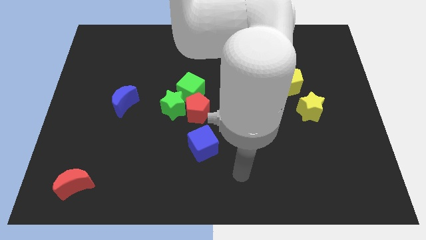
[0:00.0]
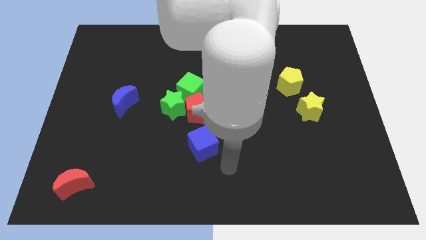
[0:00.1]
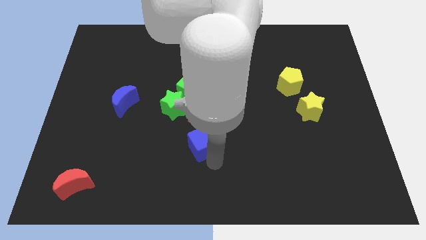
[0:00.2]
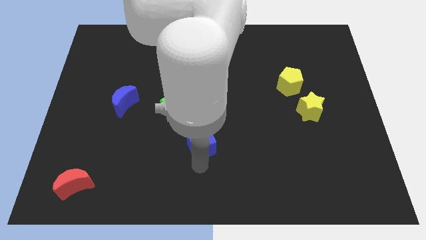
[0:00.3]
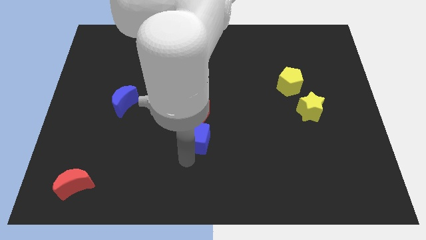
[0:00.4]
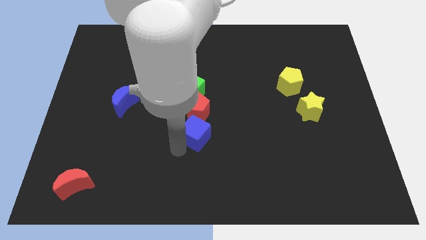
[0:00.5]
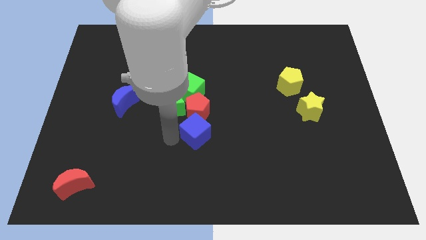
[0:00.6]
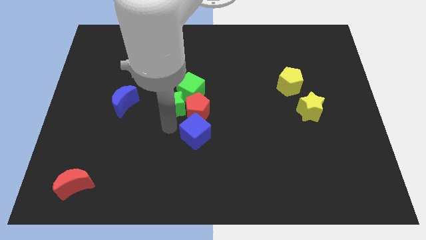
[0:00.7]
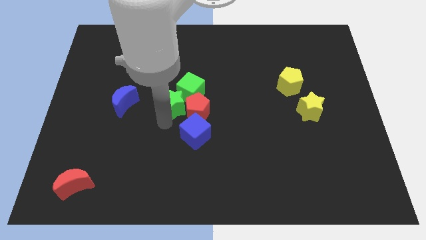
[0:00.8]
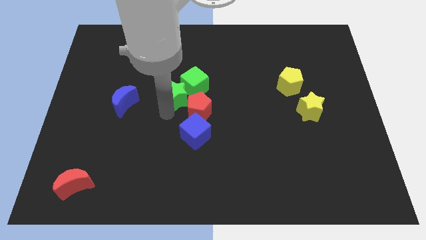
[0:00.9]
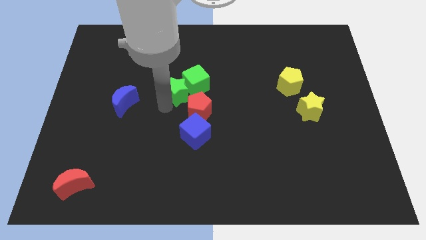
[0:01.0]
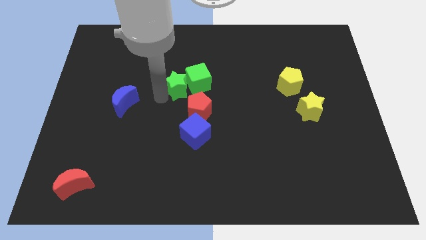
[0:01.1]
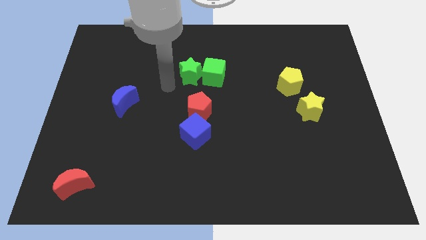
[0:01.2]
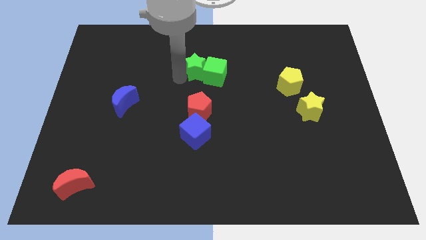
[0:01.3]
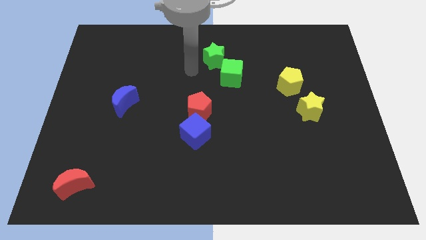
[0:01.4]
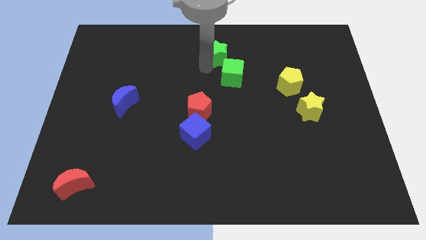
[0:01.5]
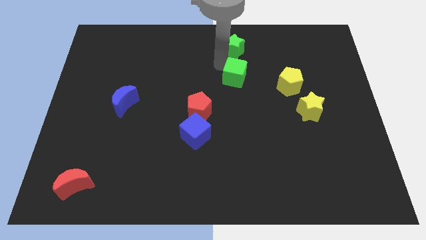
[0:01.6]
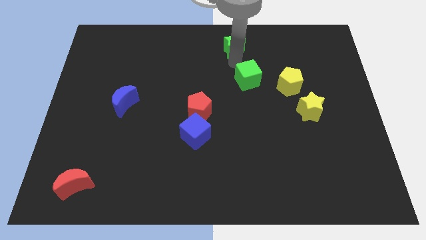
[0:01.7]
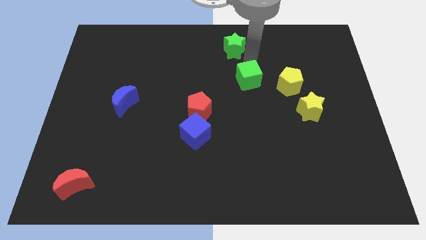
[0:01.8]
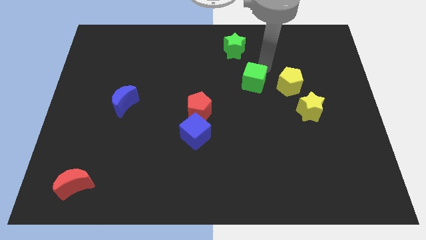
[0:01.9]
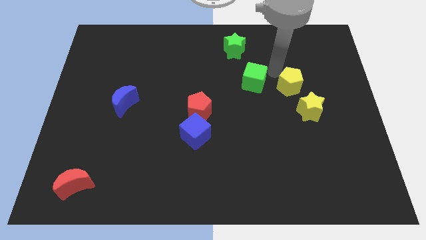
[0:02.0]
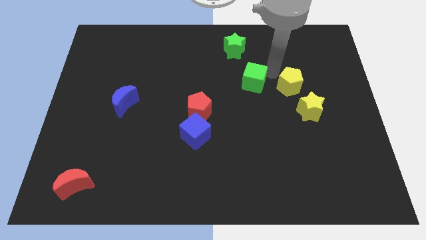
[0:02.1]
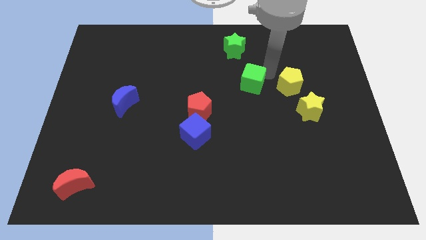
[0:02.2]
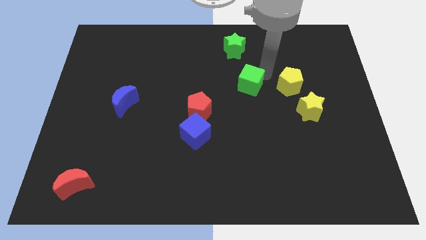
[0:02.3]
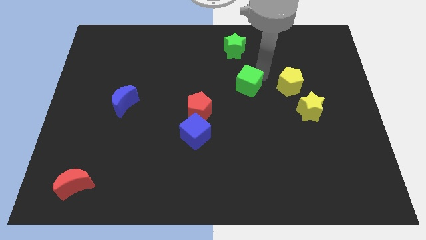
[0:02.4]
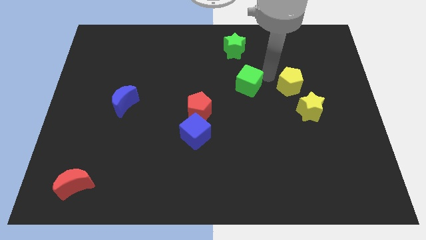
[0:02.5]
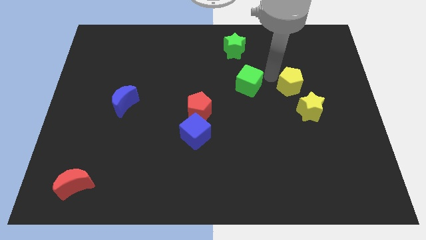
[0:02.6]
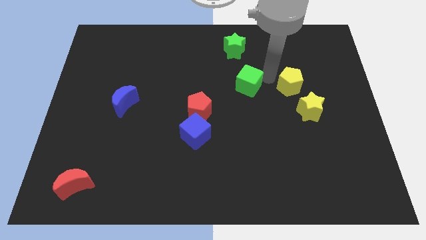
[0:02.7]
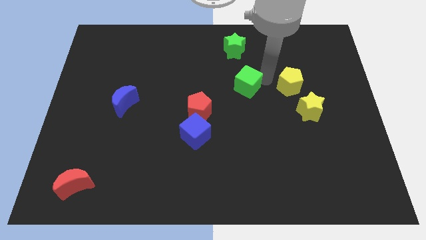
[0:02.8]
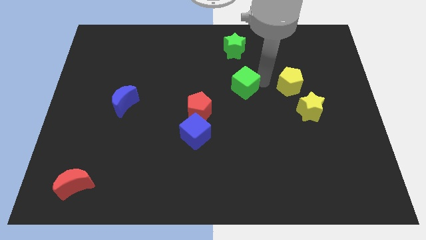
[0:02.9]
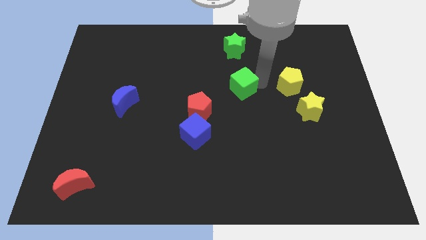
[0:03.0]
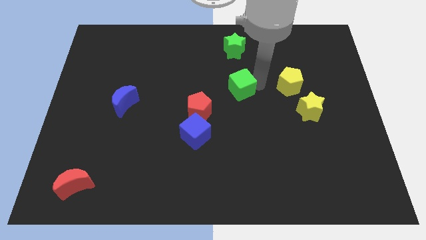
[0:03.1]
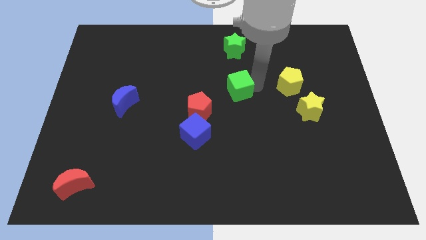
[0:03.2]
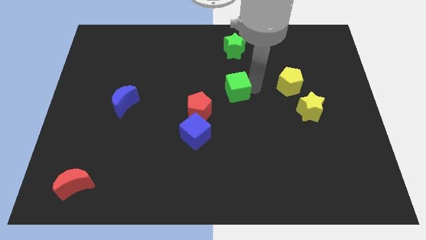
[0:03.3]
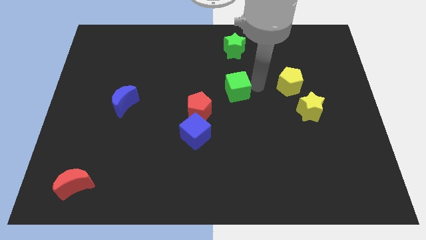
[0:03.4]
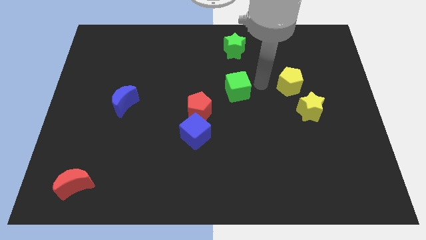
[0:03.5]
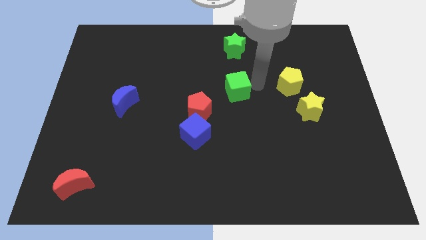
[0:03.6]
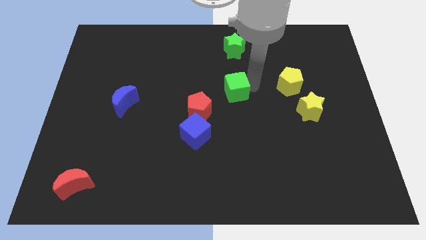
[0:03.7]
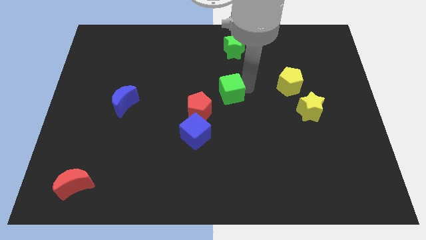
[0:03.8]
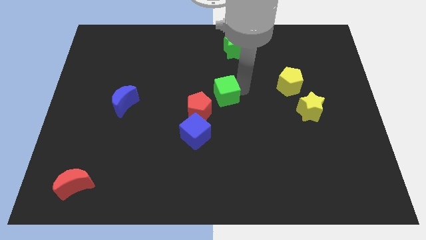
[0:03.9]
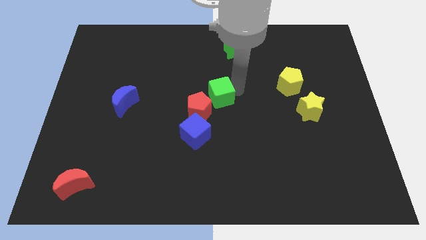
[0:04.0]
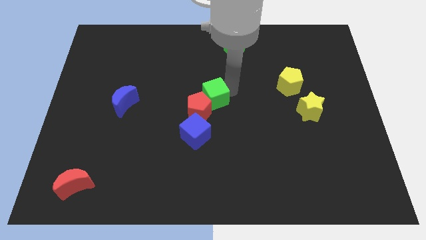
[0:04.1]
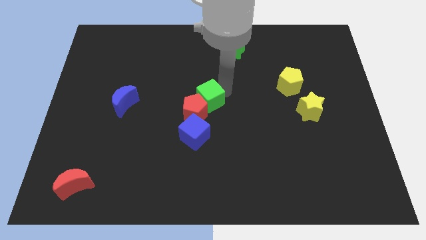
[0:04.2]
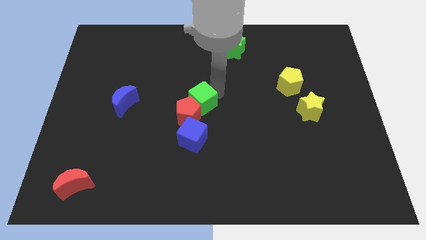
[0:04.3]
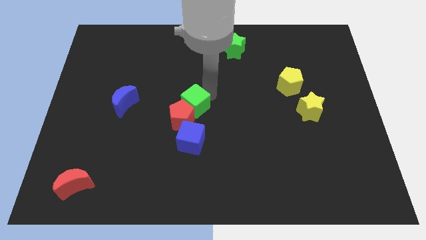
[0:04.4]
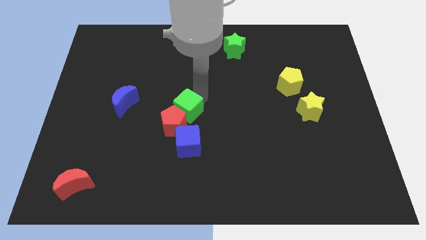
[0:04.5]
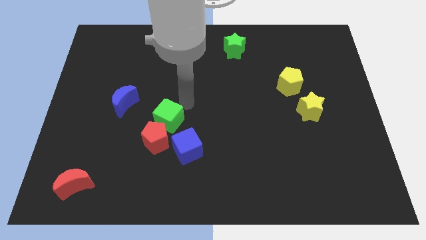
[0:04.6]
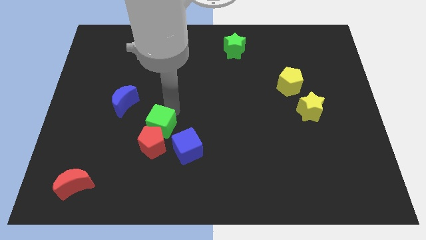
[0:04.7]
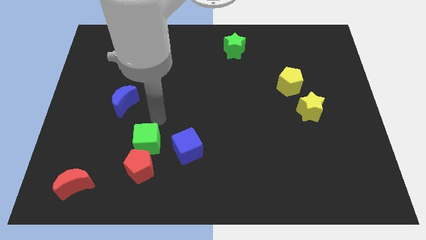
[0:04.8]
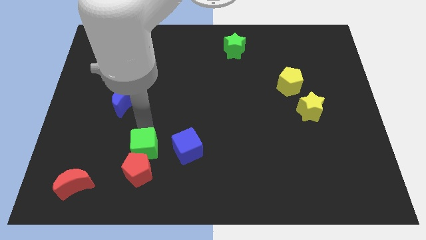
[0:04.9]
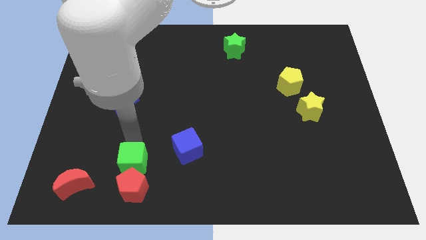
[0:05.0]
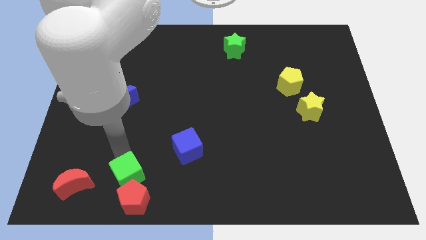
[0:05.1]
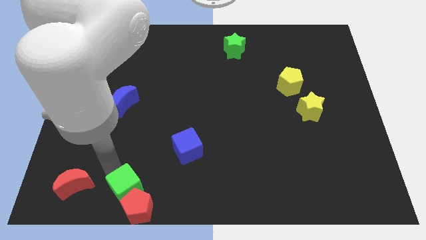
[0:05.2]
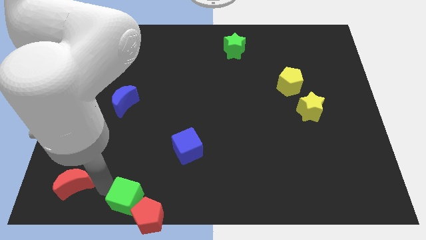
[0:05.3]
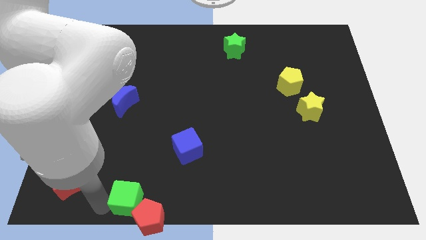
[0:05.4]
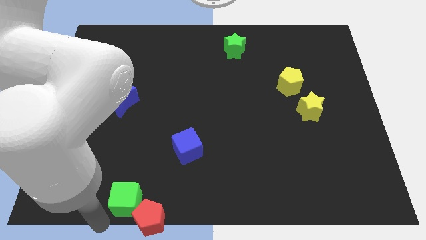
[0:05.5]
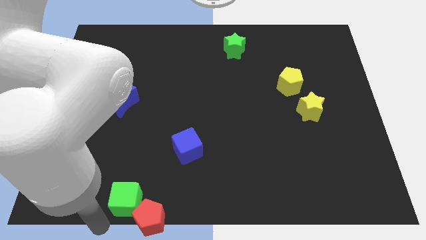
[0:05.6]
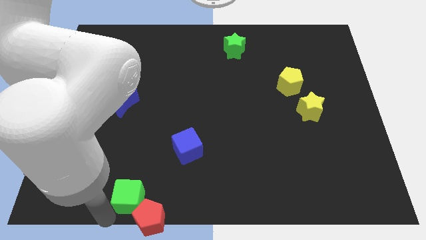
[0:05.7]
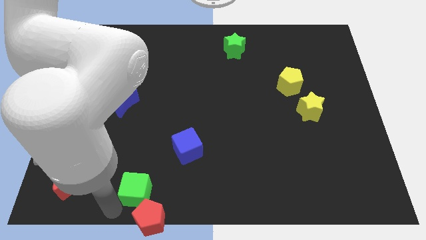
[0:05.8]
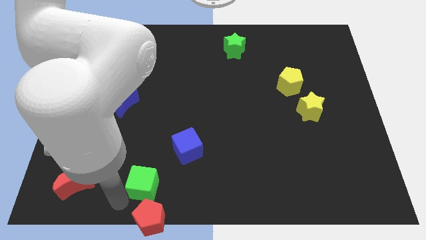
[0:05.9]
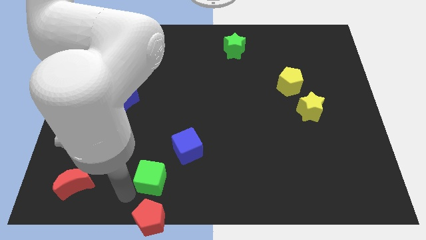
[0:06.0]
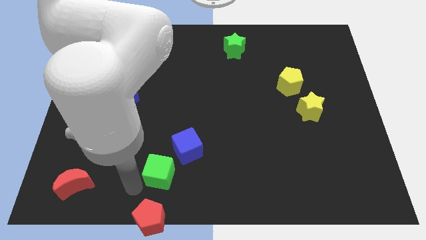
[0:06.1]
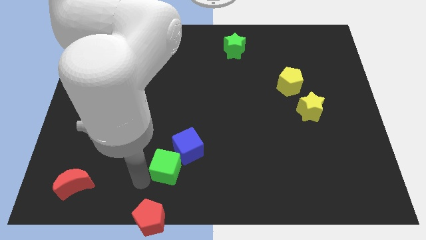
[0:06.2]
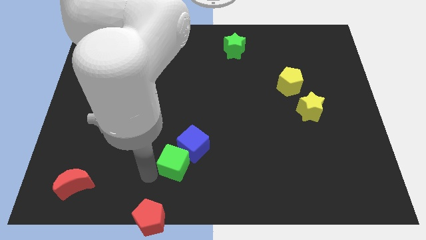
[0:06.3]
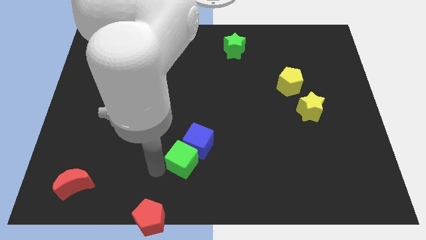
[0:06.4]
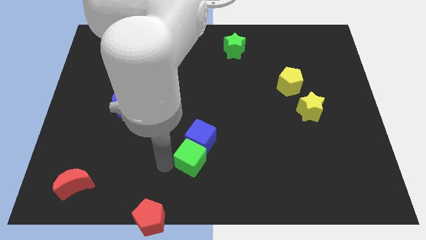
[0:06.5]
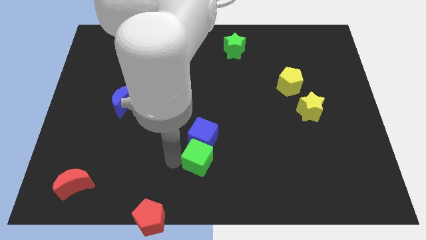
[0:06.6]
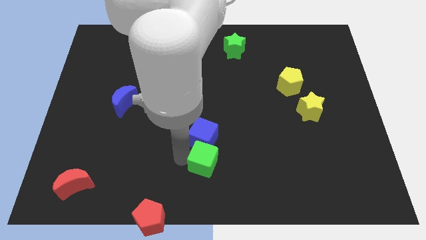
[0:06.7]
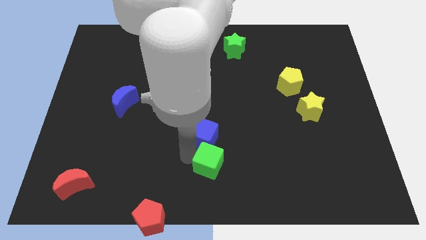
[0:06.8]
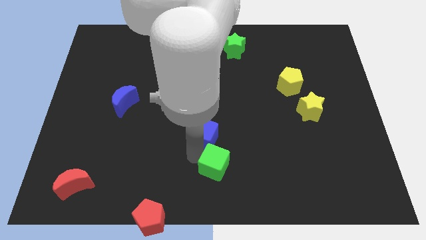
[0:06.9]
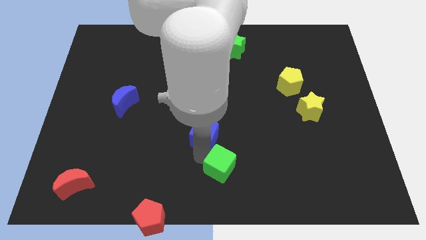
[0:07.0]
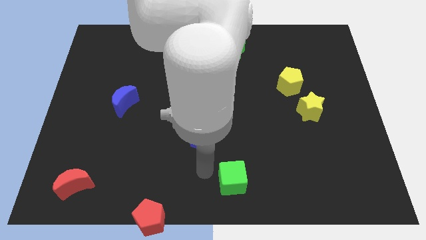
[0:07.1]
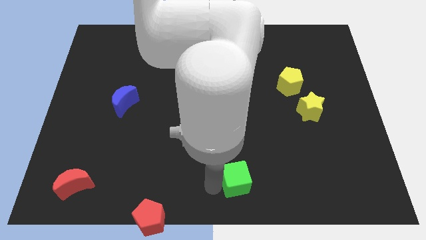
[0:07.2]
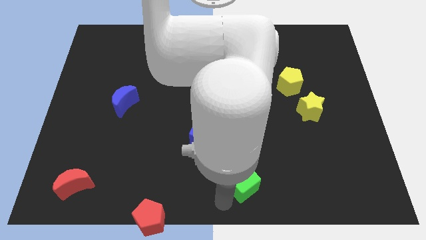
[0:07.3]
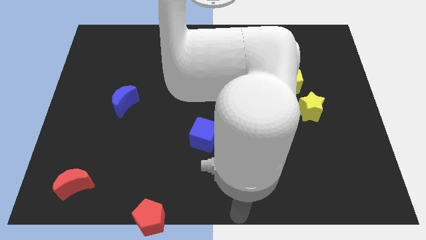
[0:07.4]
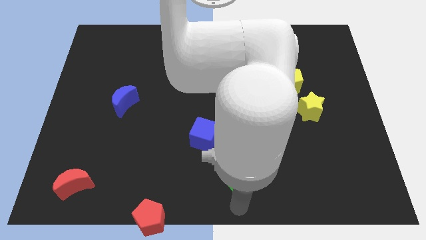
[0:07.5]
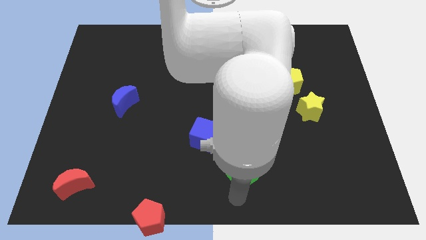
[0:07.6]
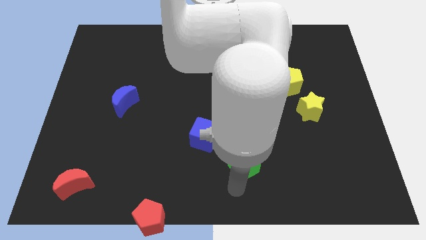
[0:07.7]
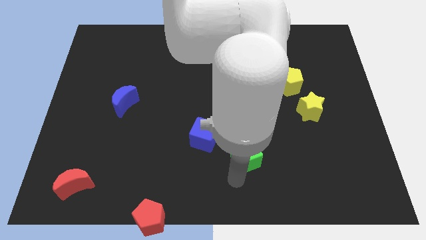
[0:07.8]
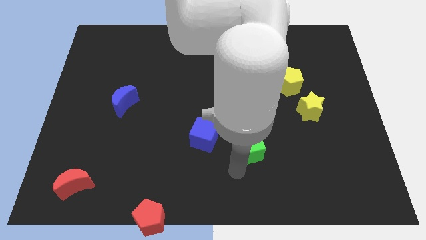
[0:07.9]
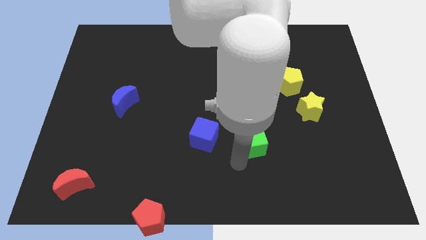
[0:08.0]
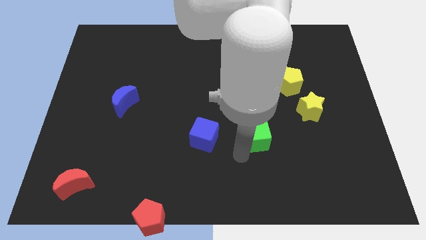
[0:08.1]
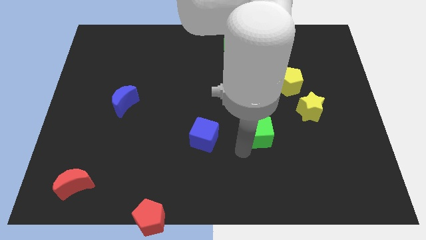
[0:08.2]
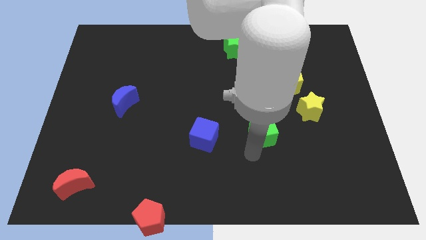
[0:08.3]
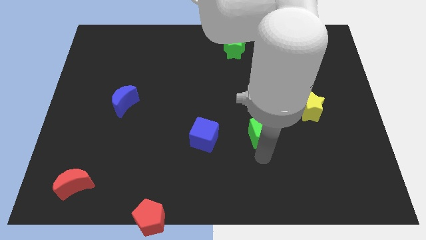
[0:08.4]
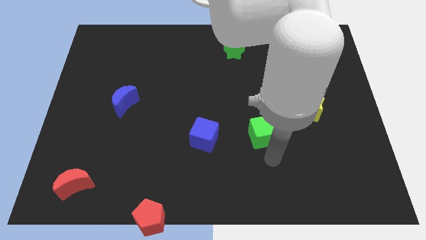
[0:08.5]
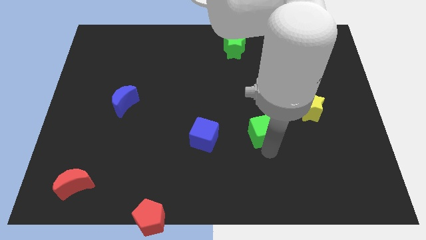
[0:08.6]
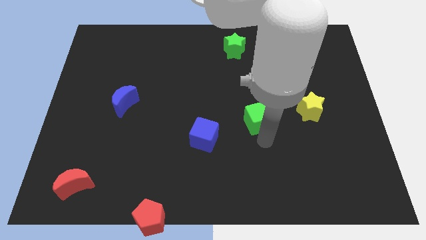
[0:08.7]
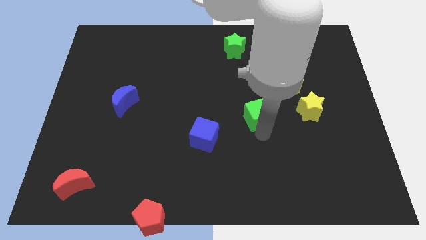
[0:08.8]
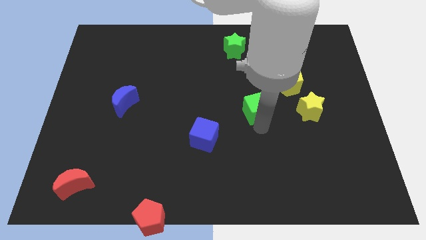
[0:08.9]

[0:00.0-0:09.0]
move the green cube diagonally down and to the left of the yellow pentagon
